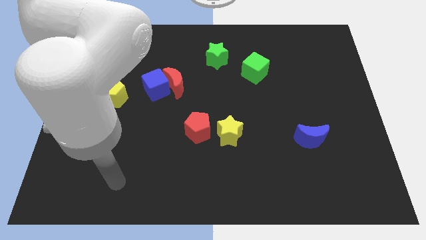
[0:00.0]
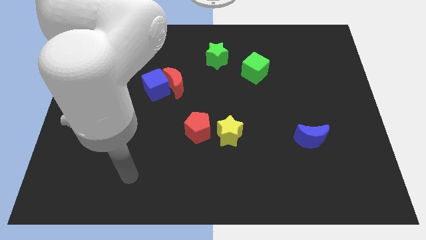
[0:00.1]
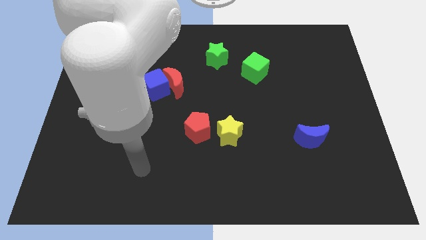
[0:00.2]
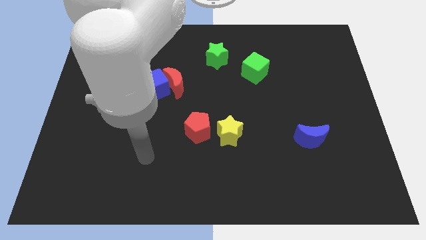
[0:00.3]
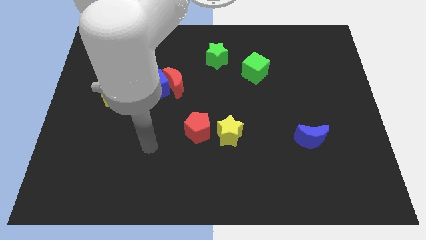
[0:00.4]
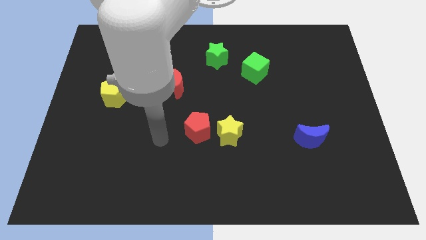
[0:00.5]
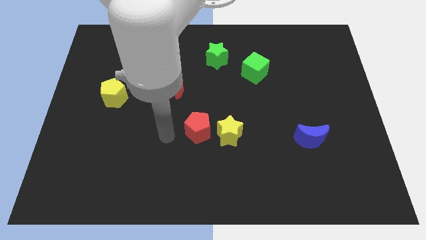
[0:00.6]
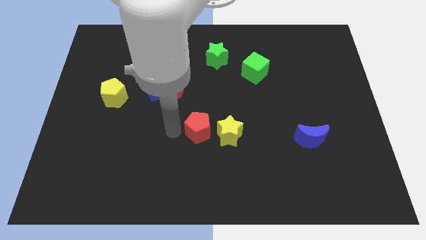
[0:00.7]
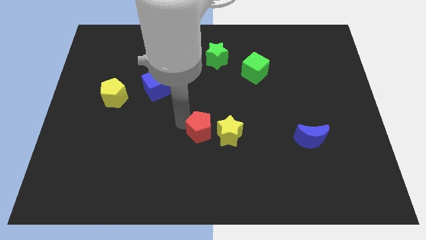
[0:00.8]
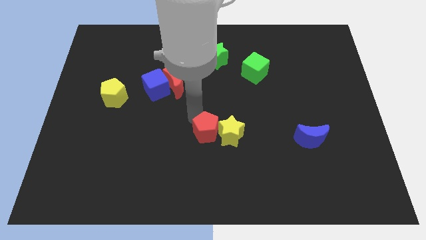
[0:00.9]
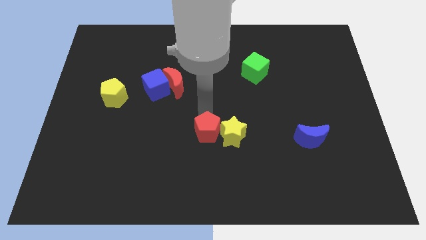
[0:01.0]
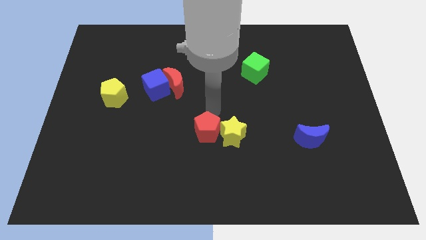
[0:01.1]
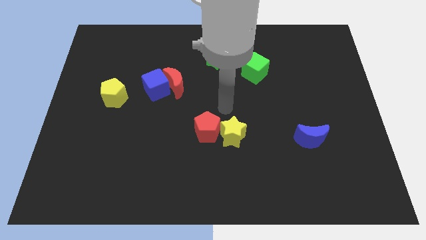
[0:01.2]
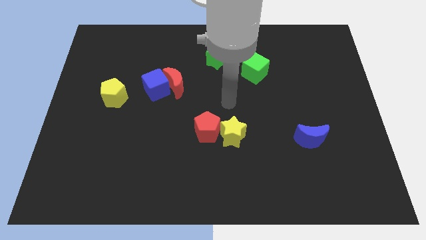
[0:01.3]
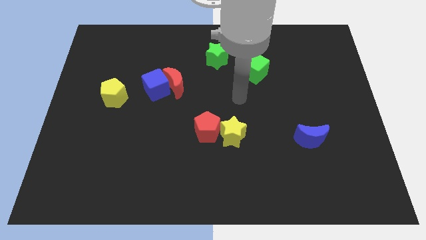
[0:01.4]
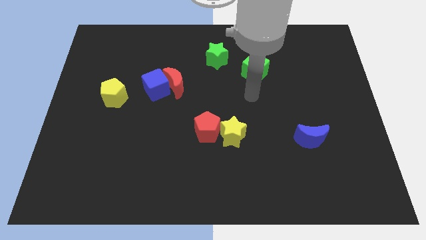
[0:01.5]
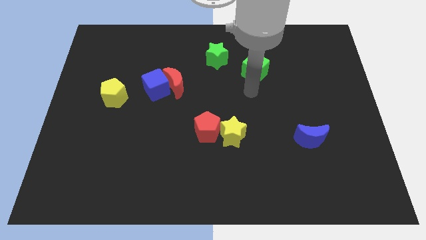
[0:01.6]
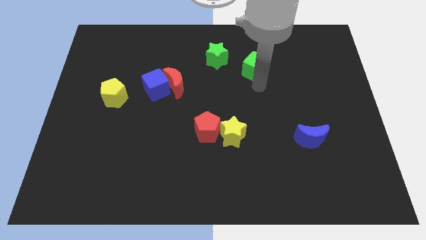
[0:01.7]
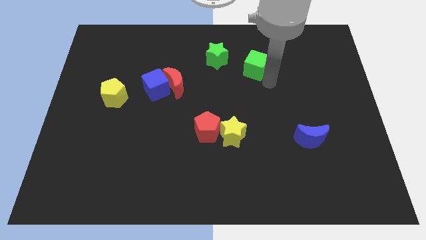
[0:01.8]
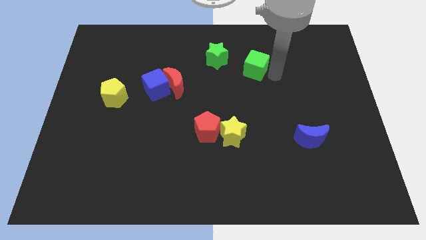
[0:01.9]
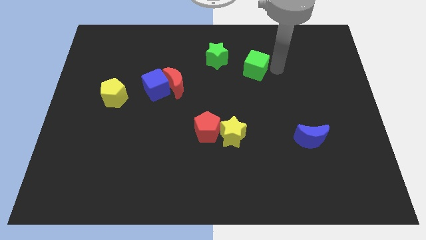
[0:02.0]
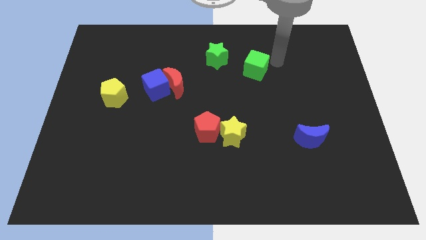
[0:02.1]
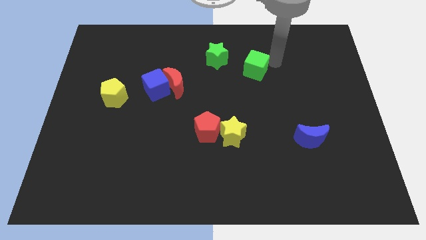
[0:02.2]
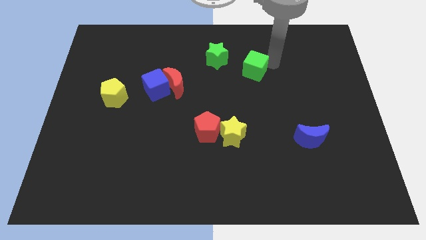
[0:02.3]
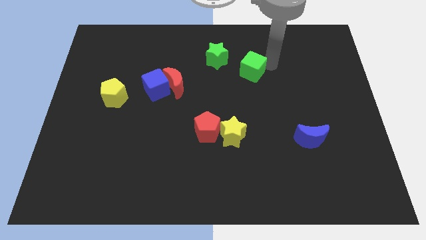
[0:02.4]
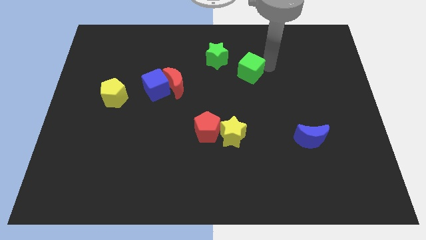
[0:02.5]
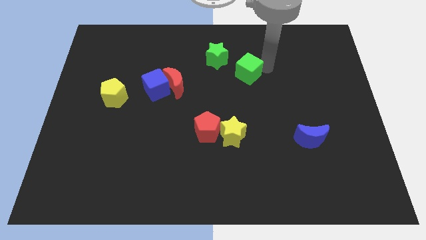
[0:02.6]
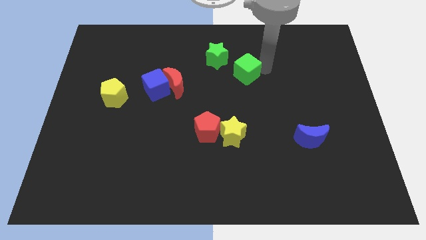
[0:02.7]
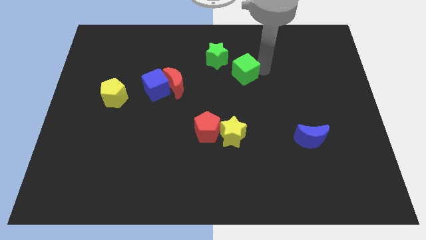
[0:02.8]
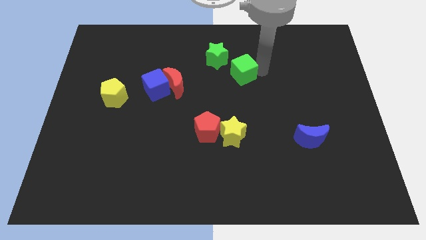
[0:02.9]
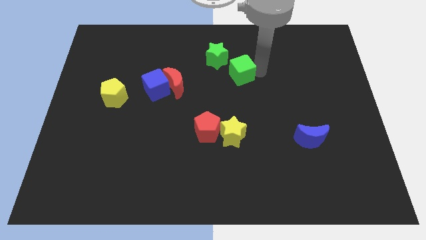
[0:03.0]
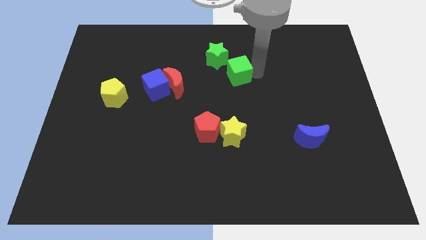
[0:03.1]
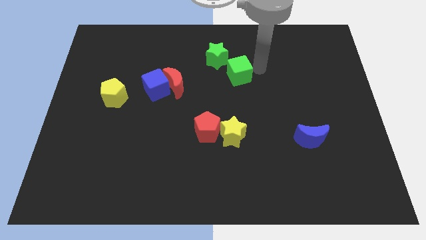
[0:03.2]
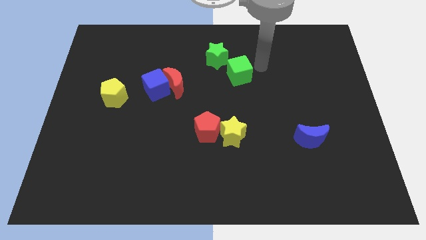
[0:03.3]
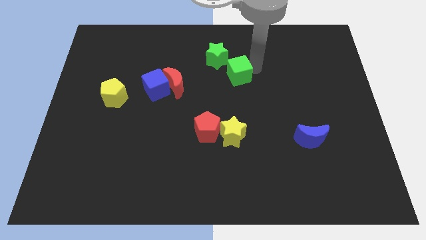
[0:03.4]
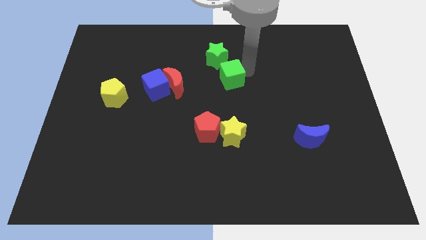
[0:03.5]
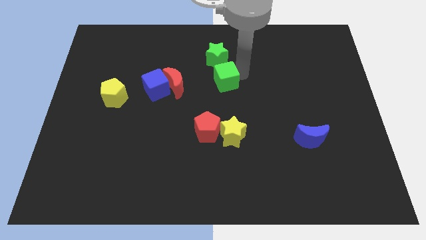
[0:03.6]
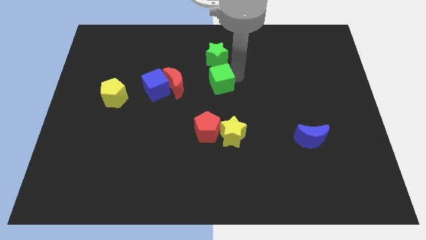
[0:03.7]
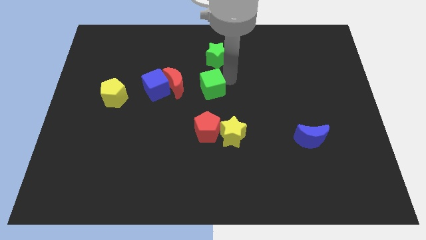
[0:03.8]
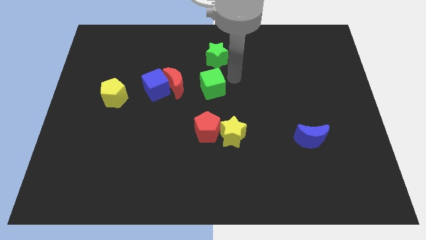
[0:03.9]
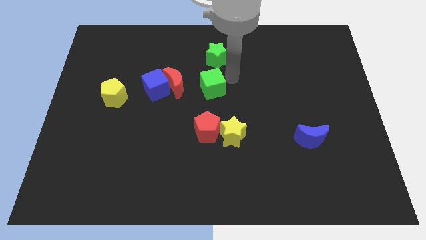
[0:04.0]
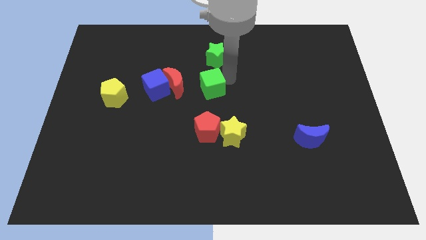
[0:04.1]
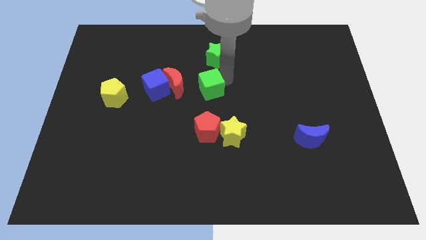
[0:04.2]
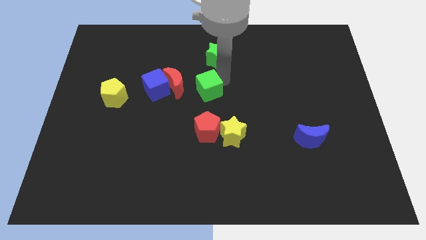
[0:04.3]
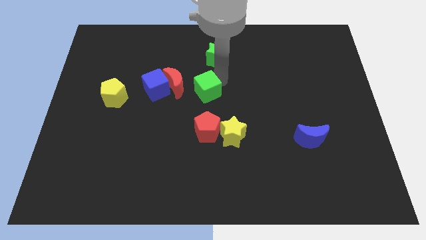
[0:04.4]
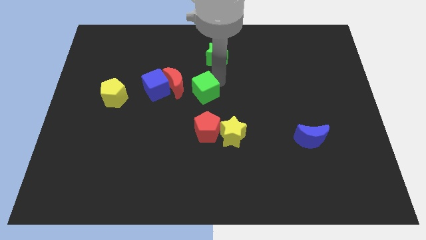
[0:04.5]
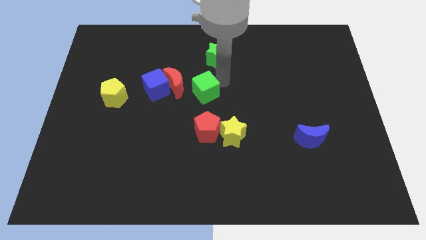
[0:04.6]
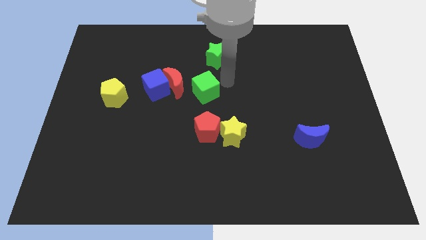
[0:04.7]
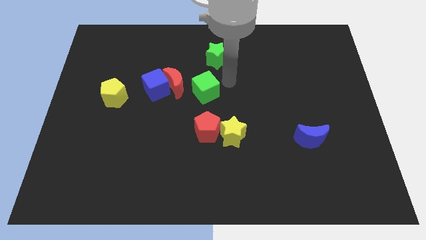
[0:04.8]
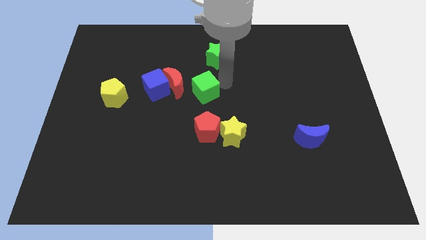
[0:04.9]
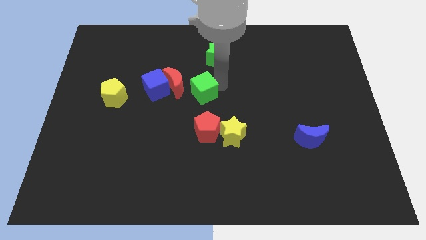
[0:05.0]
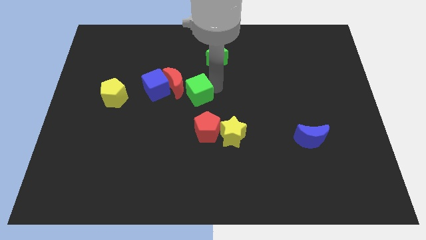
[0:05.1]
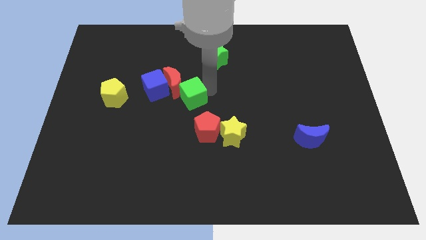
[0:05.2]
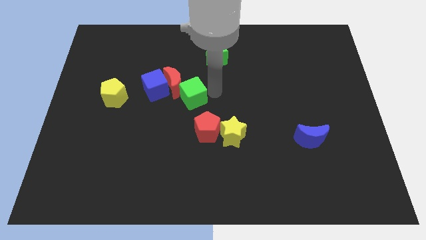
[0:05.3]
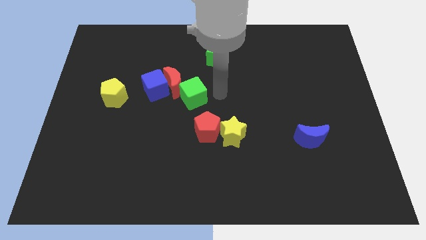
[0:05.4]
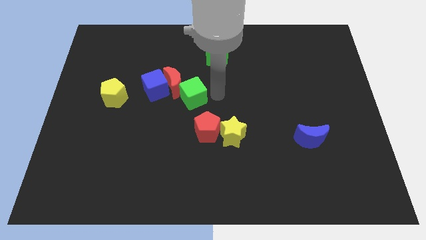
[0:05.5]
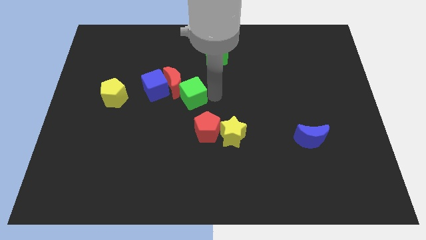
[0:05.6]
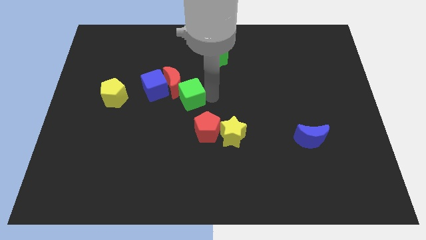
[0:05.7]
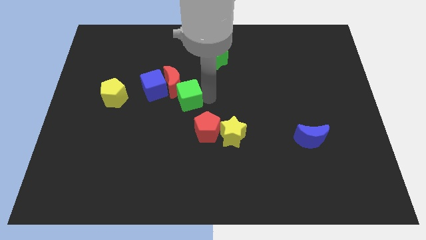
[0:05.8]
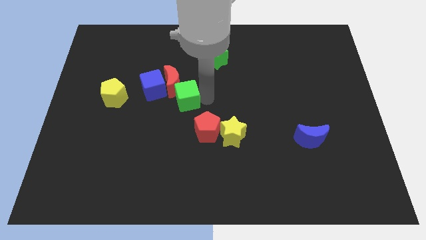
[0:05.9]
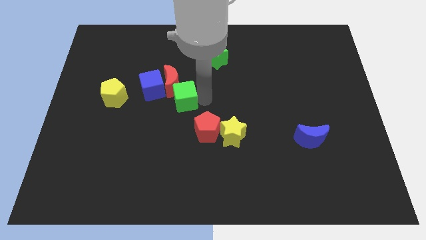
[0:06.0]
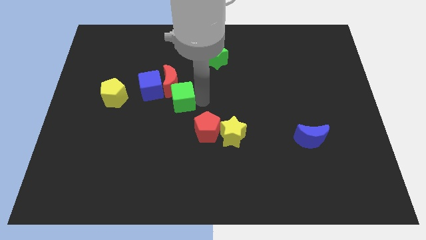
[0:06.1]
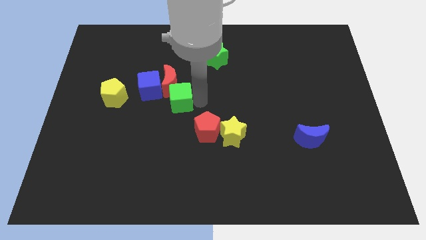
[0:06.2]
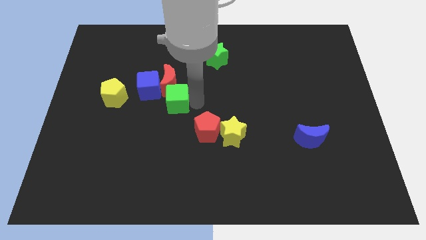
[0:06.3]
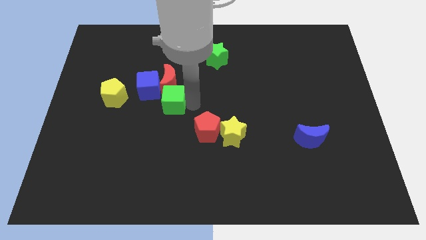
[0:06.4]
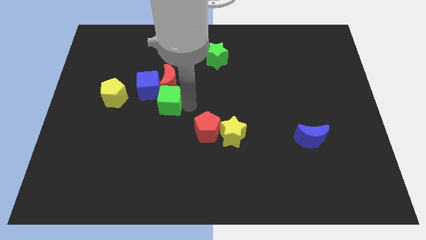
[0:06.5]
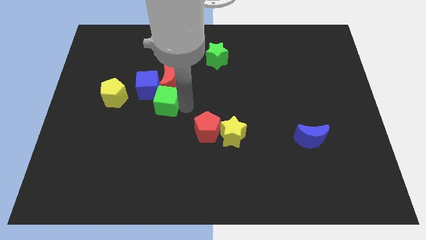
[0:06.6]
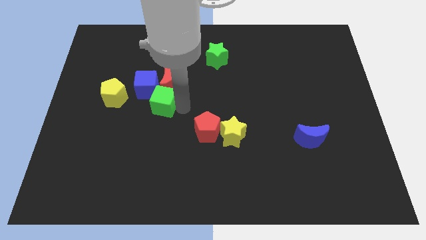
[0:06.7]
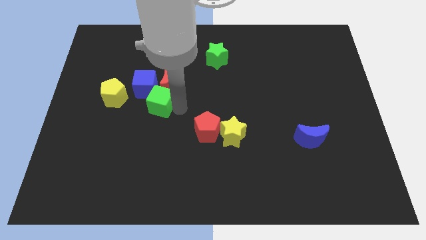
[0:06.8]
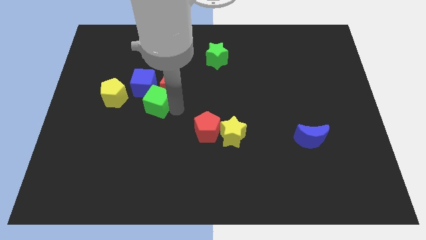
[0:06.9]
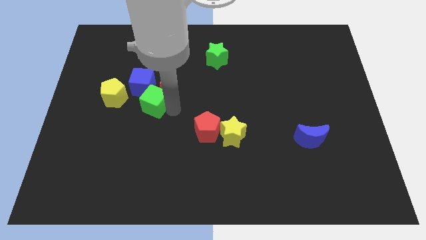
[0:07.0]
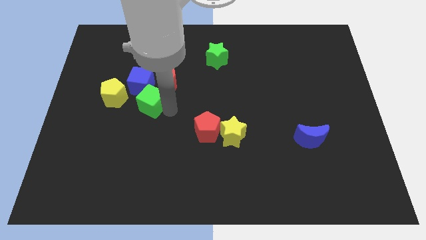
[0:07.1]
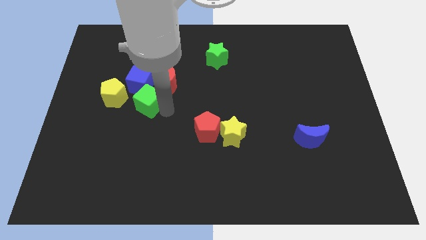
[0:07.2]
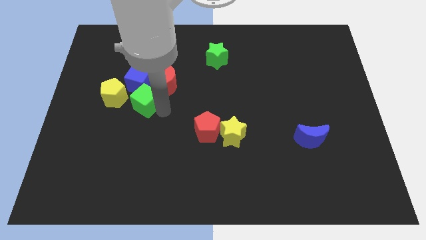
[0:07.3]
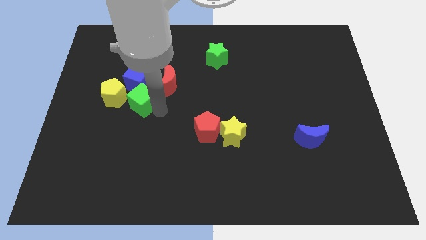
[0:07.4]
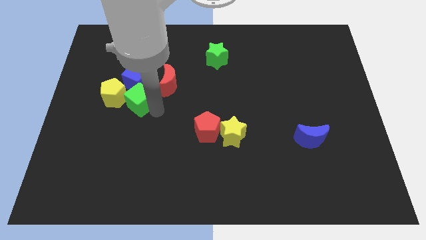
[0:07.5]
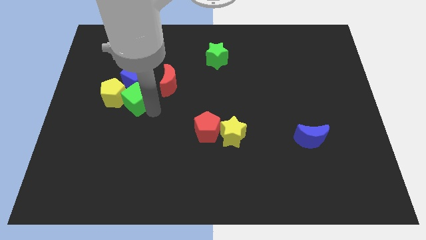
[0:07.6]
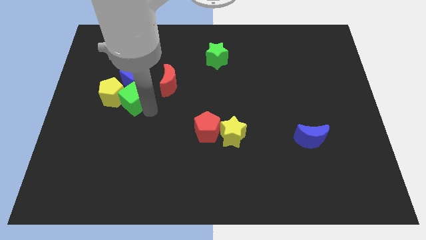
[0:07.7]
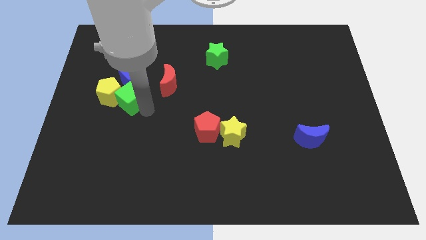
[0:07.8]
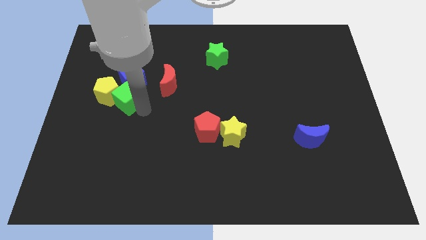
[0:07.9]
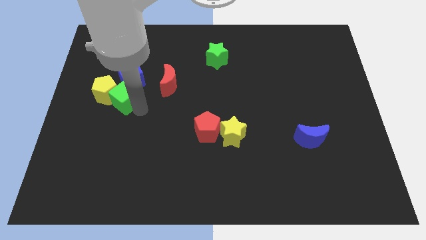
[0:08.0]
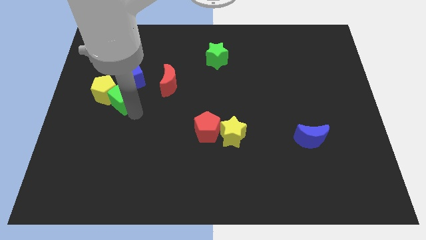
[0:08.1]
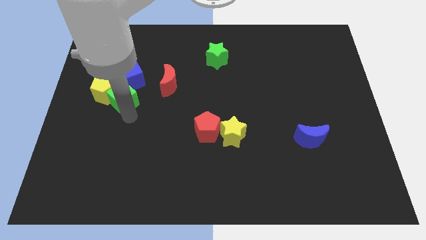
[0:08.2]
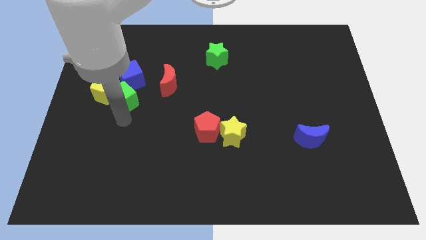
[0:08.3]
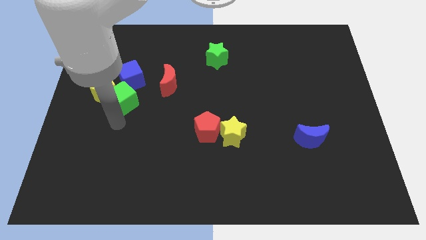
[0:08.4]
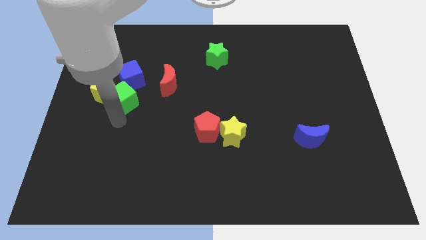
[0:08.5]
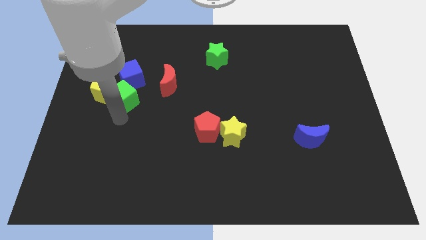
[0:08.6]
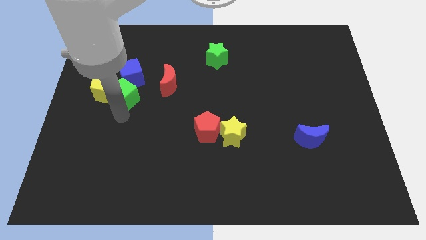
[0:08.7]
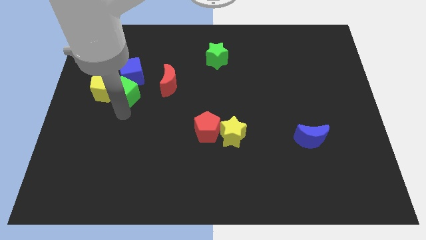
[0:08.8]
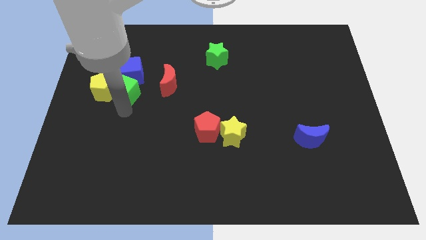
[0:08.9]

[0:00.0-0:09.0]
push the green cube next to the blue cube
